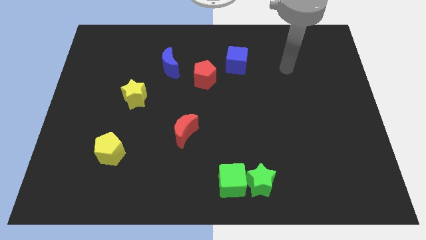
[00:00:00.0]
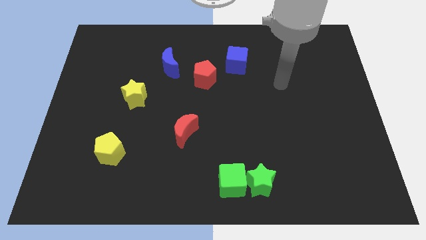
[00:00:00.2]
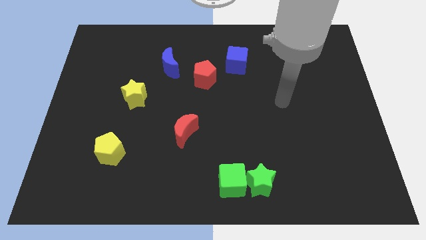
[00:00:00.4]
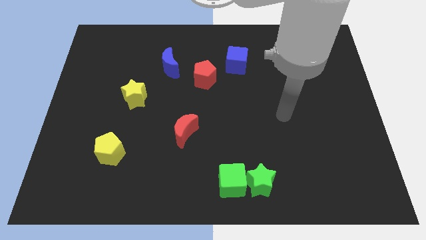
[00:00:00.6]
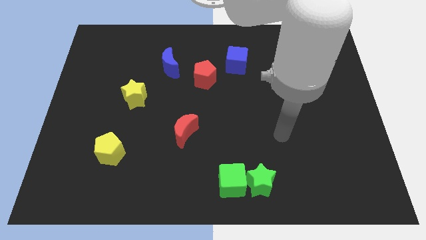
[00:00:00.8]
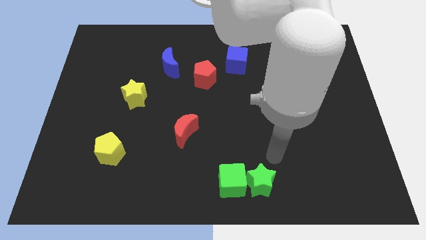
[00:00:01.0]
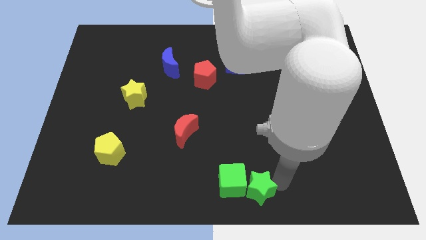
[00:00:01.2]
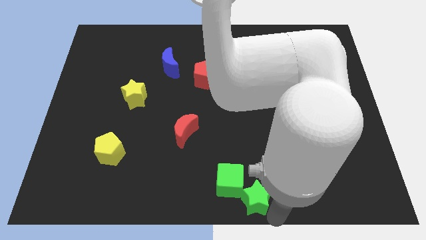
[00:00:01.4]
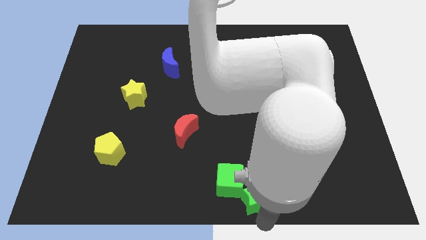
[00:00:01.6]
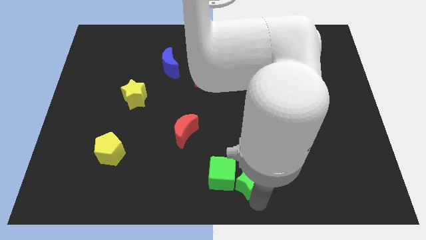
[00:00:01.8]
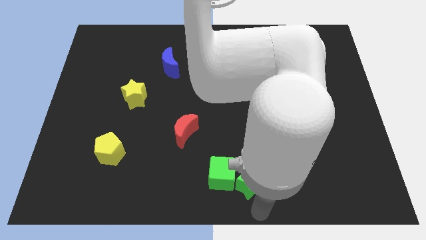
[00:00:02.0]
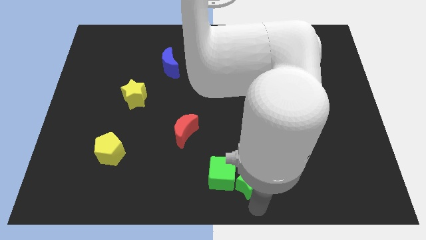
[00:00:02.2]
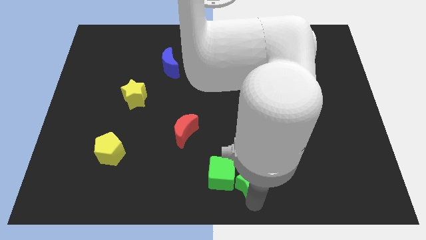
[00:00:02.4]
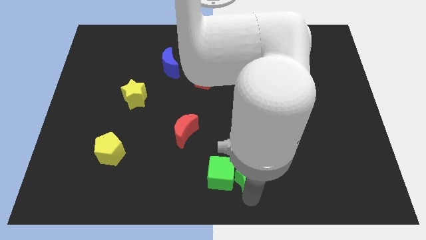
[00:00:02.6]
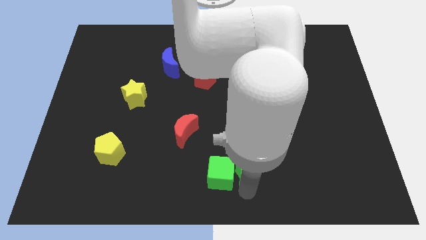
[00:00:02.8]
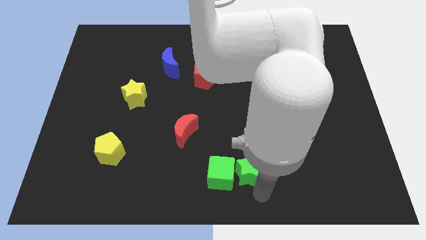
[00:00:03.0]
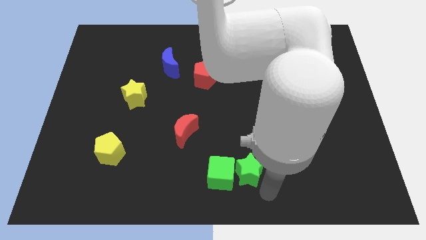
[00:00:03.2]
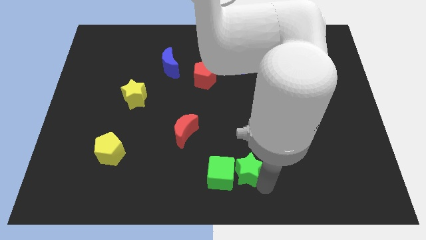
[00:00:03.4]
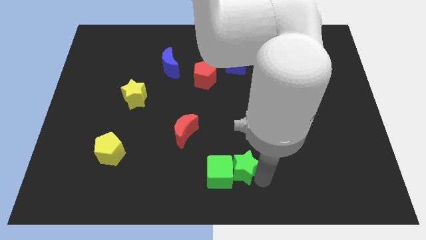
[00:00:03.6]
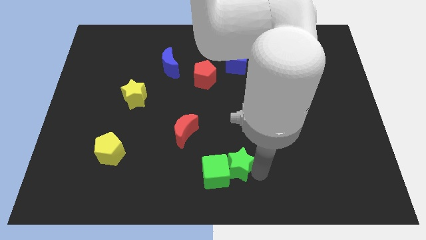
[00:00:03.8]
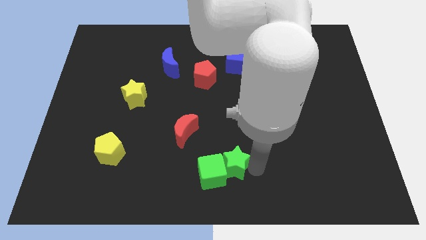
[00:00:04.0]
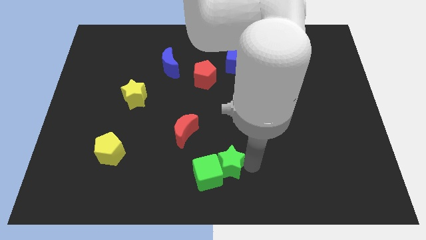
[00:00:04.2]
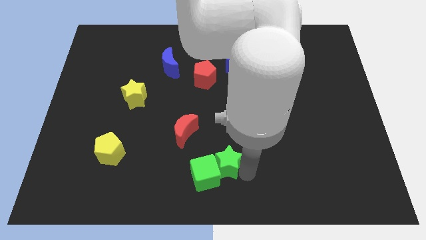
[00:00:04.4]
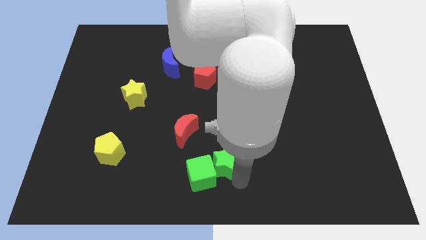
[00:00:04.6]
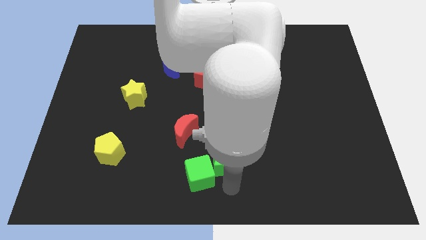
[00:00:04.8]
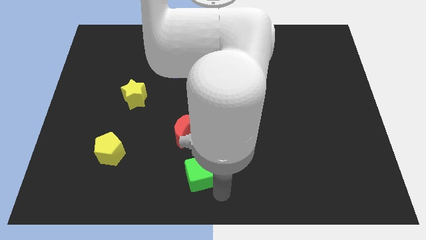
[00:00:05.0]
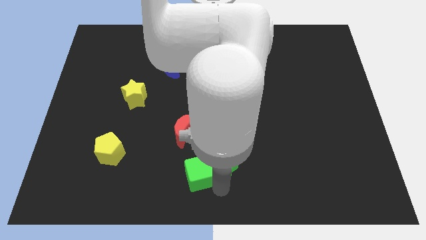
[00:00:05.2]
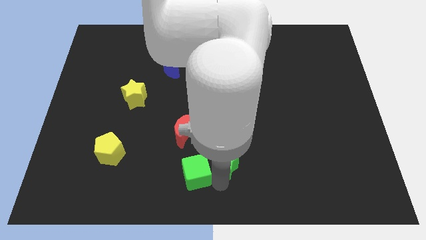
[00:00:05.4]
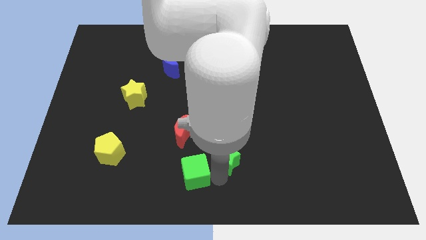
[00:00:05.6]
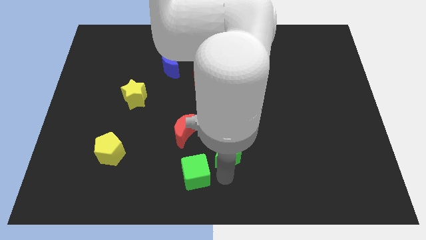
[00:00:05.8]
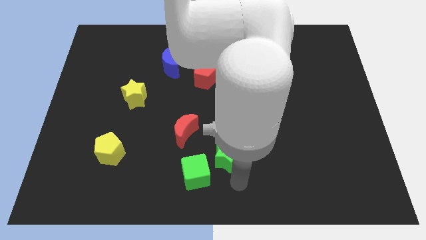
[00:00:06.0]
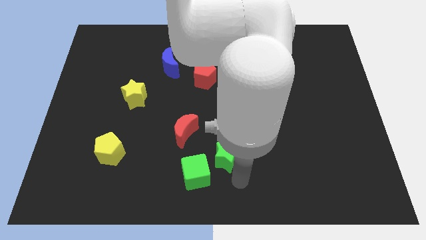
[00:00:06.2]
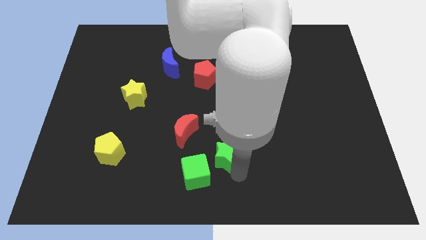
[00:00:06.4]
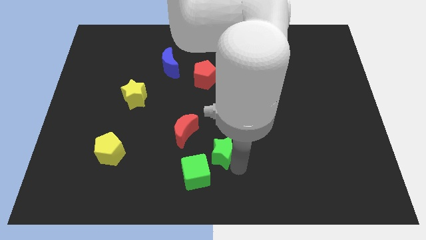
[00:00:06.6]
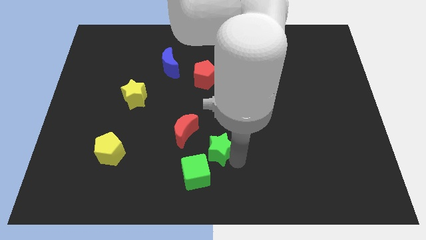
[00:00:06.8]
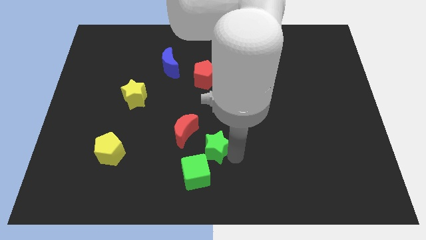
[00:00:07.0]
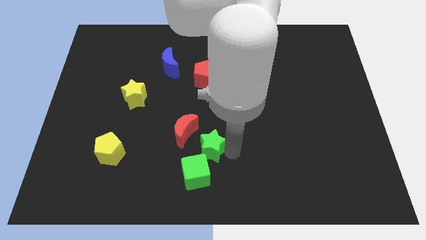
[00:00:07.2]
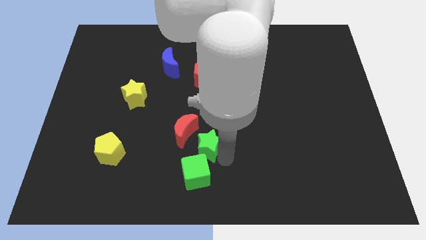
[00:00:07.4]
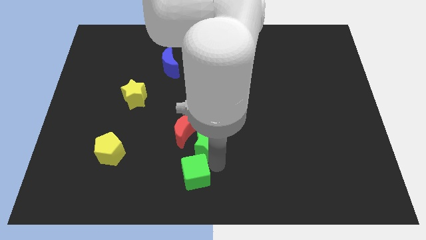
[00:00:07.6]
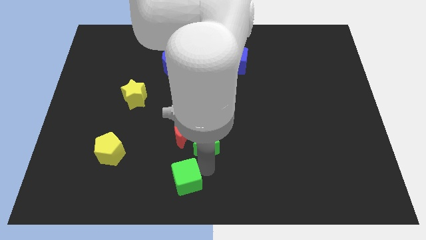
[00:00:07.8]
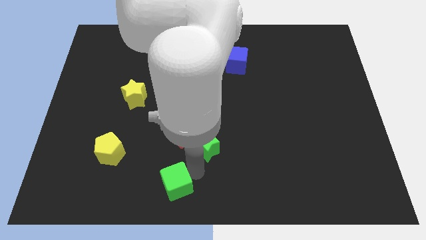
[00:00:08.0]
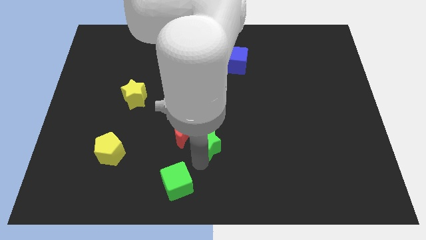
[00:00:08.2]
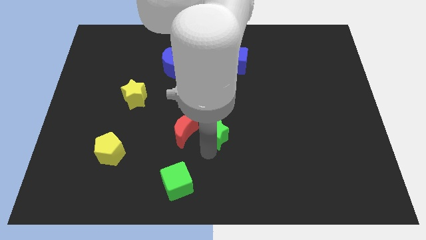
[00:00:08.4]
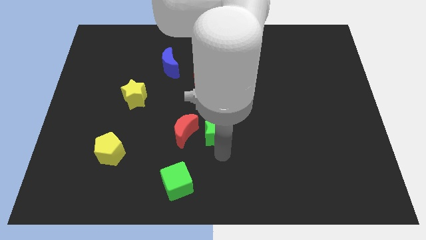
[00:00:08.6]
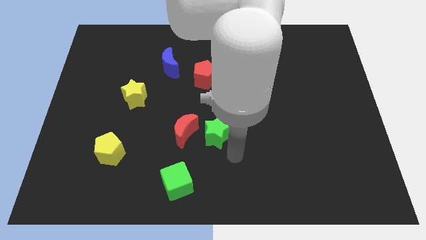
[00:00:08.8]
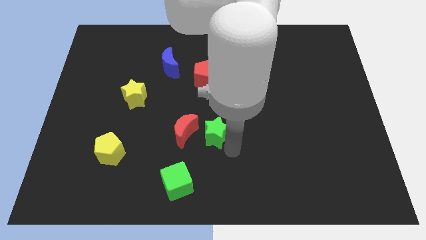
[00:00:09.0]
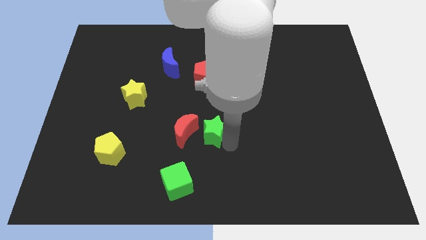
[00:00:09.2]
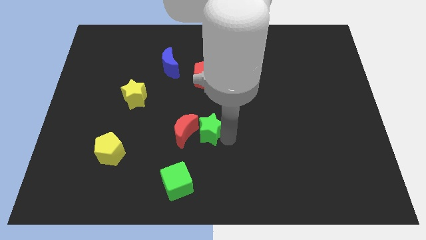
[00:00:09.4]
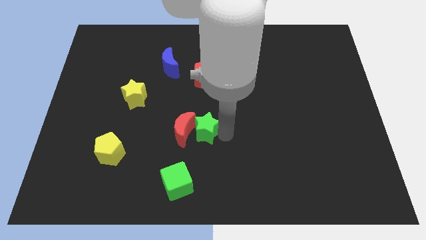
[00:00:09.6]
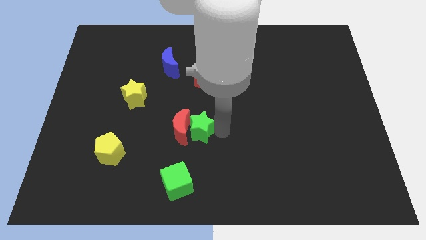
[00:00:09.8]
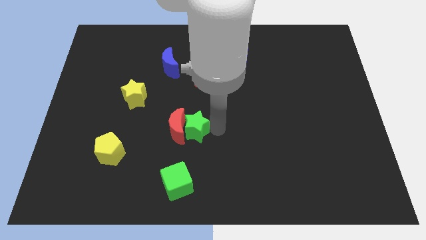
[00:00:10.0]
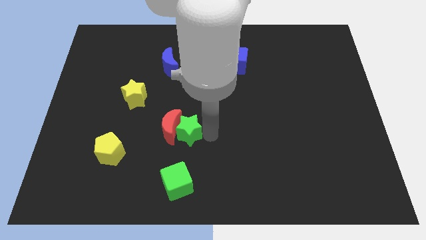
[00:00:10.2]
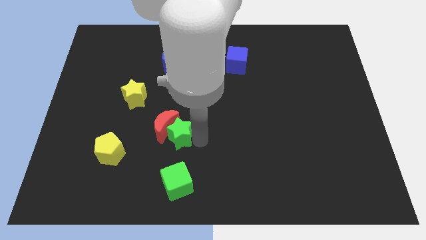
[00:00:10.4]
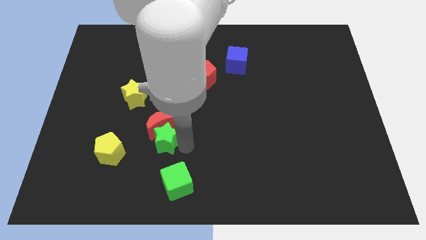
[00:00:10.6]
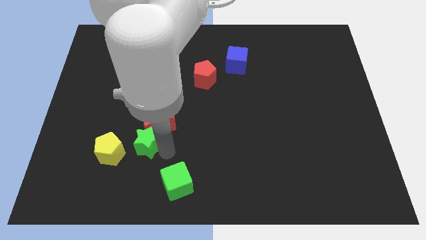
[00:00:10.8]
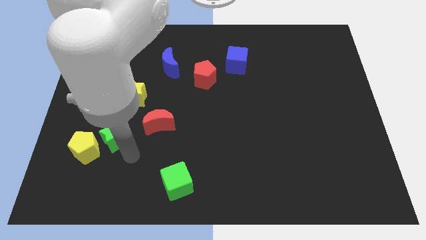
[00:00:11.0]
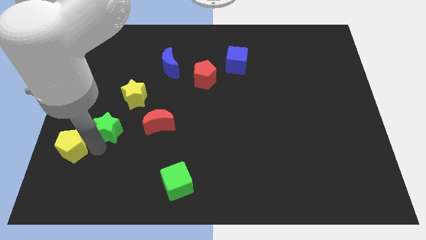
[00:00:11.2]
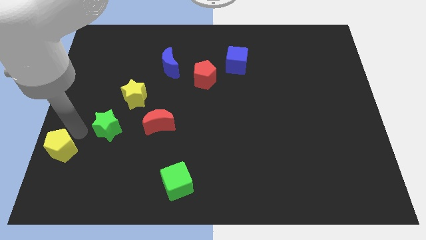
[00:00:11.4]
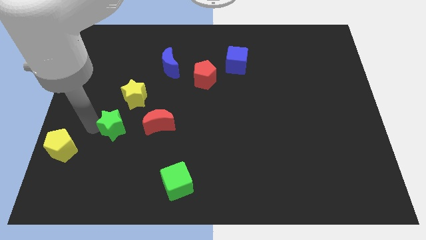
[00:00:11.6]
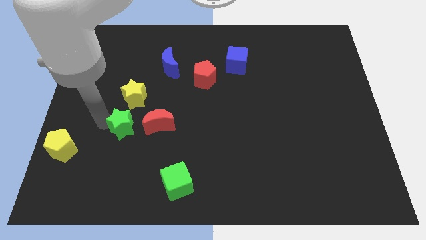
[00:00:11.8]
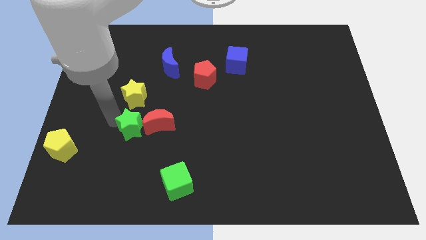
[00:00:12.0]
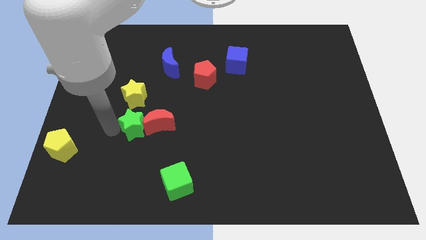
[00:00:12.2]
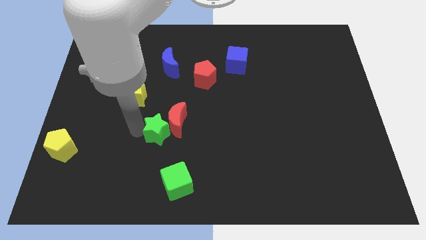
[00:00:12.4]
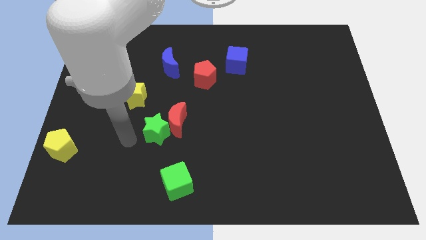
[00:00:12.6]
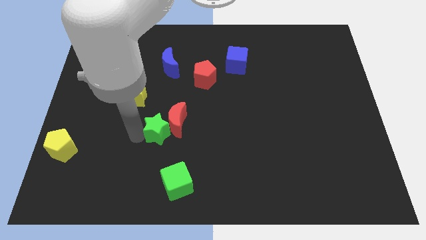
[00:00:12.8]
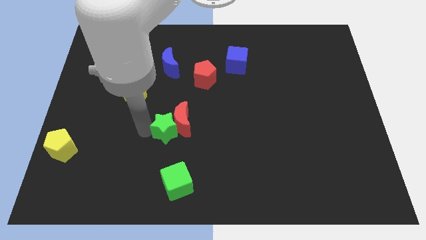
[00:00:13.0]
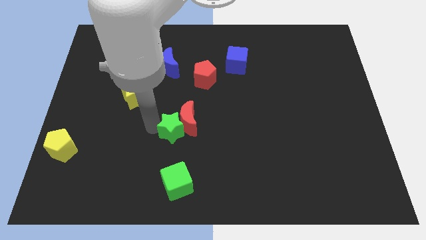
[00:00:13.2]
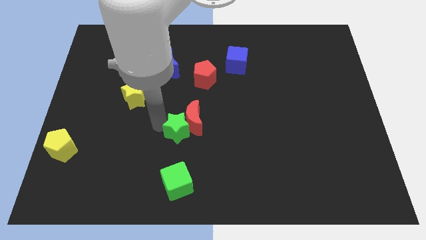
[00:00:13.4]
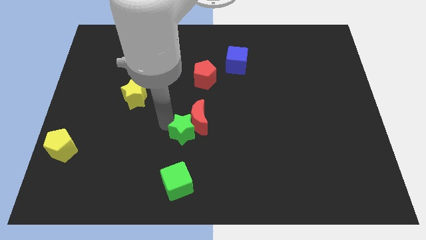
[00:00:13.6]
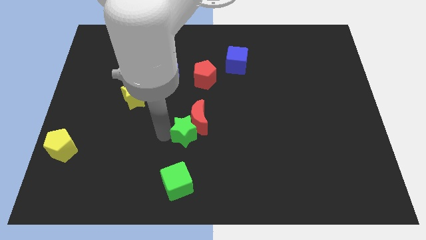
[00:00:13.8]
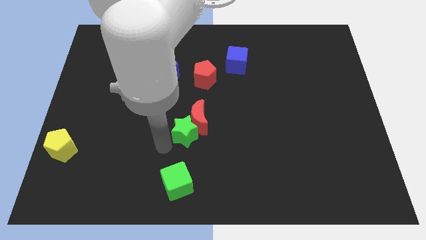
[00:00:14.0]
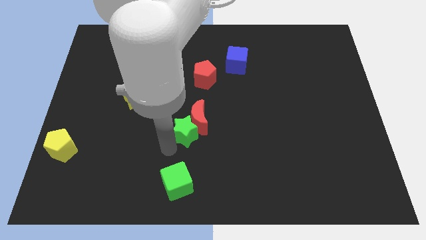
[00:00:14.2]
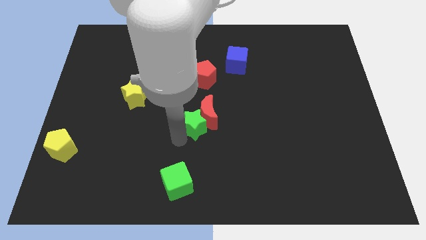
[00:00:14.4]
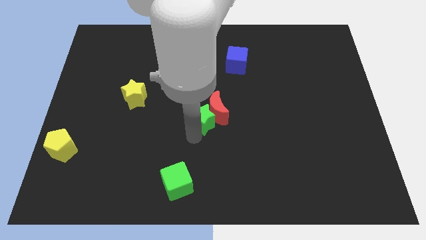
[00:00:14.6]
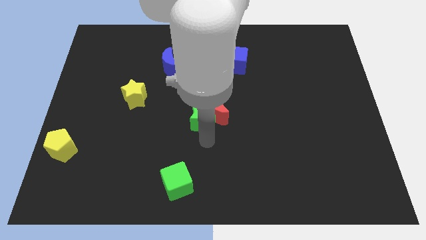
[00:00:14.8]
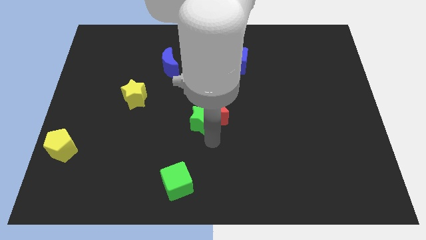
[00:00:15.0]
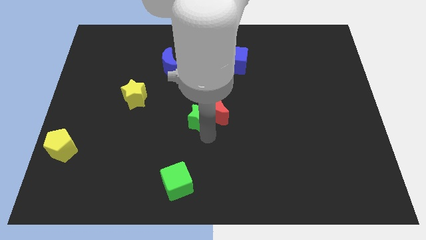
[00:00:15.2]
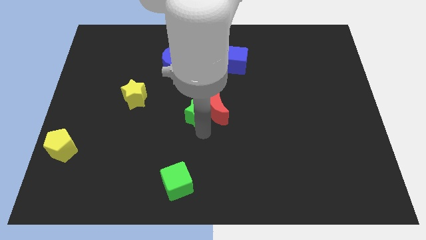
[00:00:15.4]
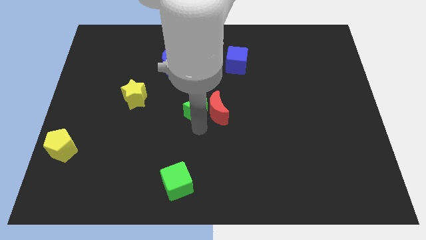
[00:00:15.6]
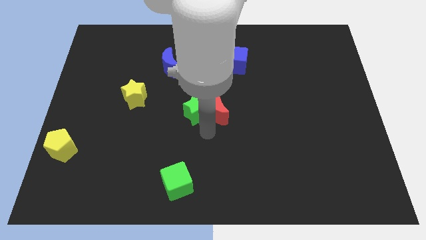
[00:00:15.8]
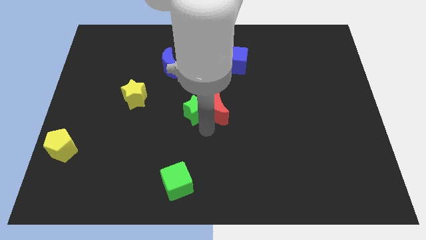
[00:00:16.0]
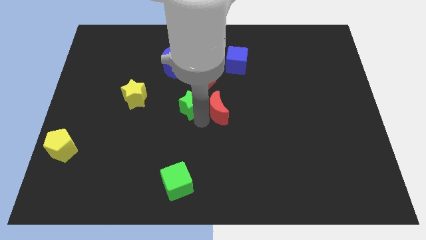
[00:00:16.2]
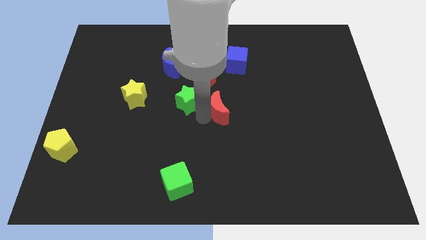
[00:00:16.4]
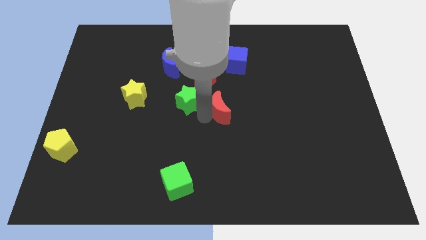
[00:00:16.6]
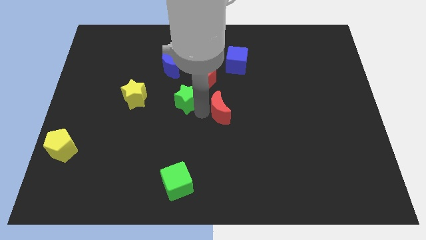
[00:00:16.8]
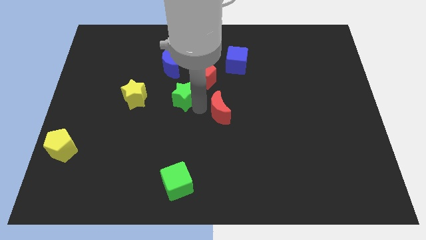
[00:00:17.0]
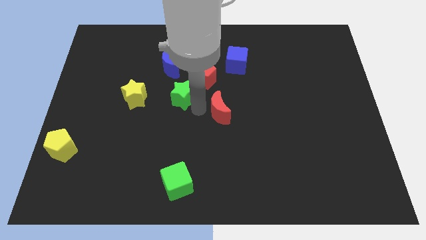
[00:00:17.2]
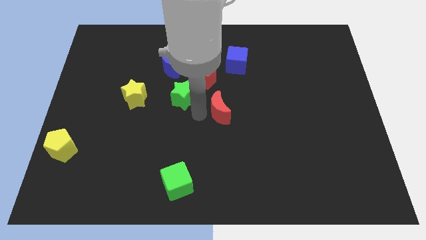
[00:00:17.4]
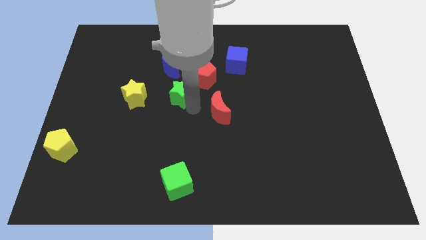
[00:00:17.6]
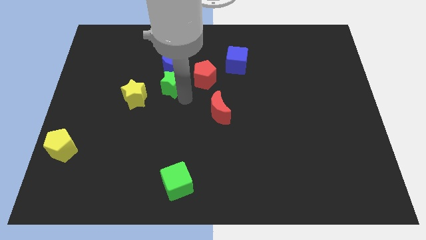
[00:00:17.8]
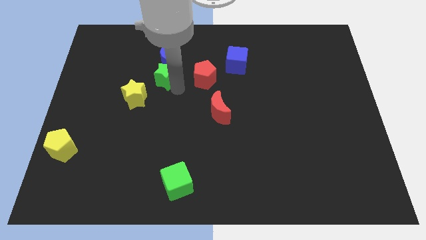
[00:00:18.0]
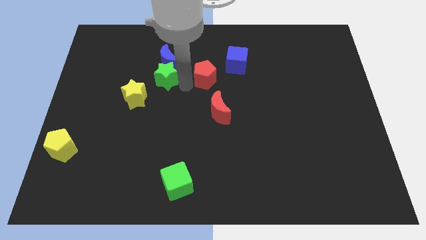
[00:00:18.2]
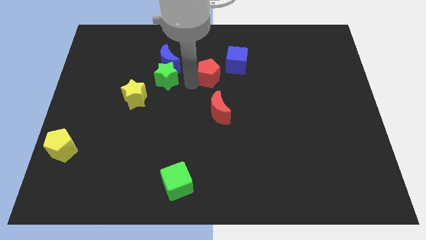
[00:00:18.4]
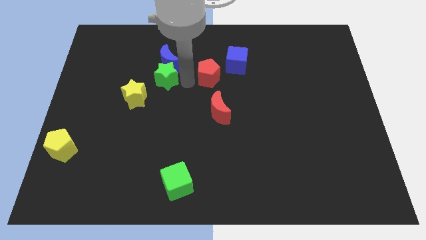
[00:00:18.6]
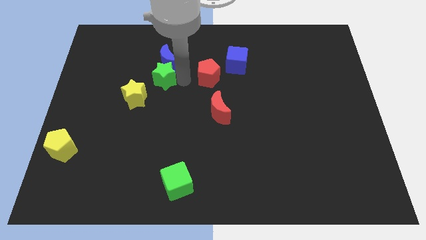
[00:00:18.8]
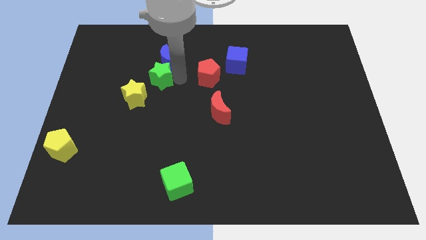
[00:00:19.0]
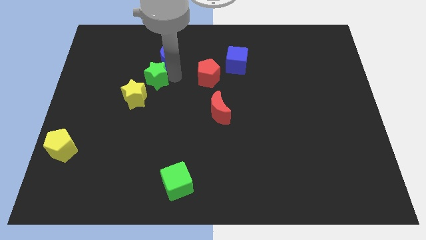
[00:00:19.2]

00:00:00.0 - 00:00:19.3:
slide the green star to the top side of the yellow star
